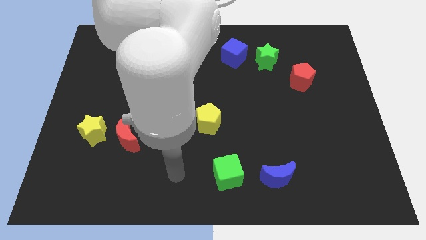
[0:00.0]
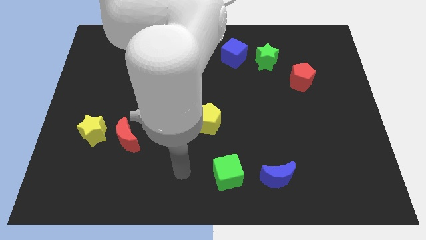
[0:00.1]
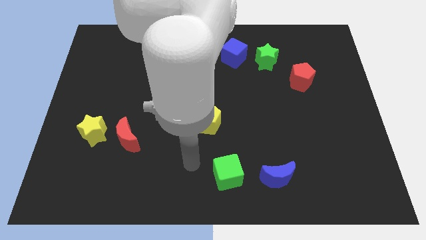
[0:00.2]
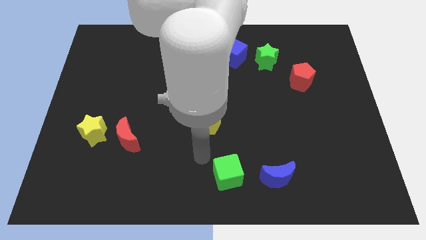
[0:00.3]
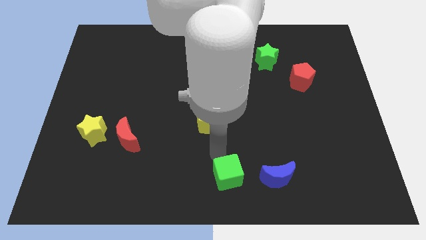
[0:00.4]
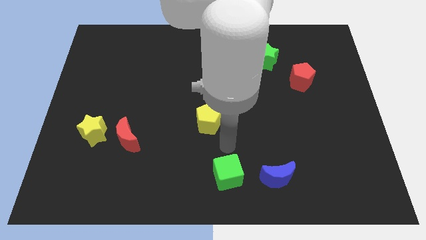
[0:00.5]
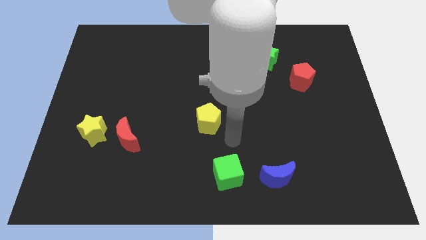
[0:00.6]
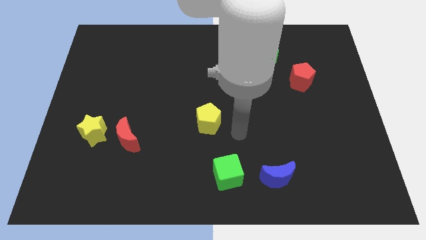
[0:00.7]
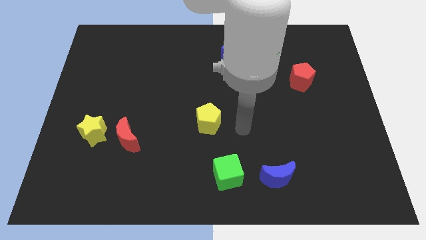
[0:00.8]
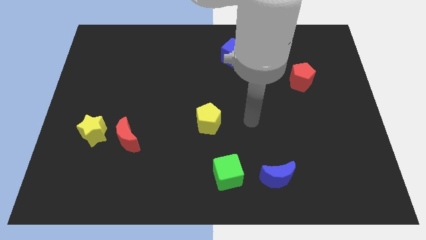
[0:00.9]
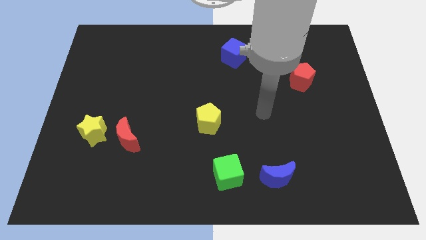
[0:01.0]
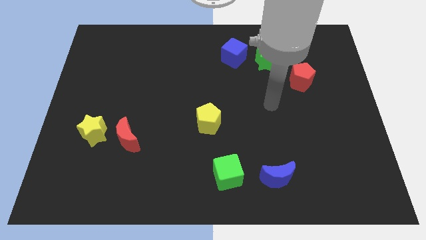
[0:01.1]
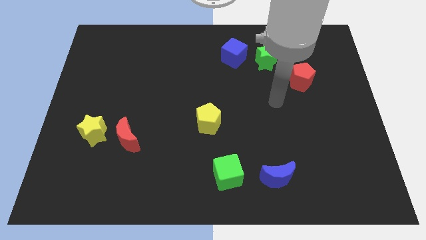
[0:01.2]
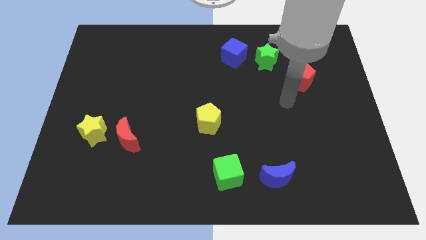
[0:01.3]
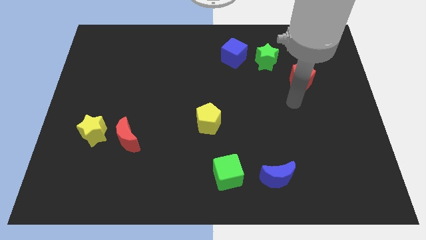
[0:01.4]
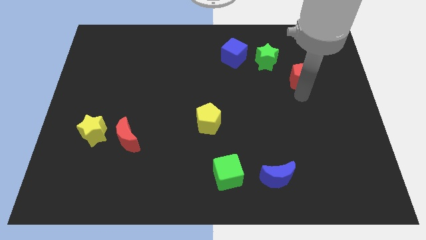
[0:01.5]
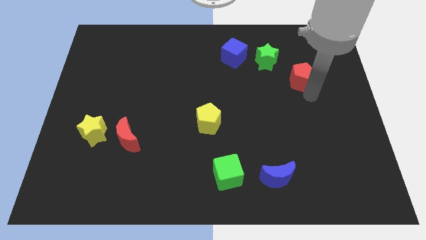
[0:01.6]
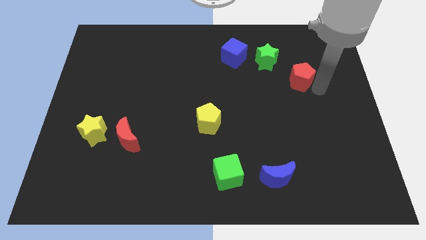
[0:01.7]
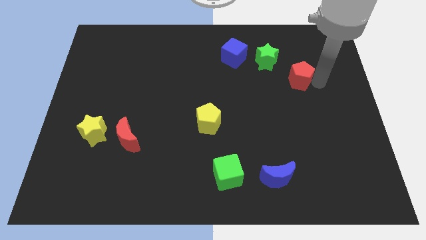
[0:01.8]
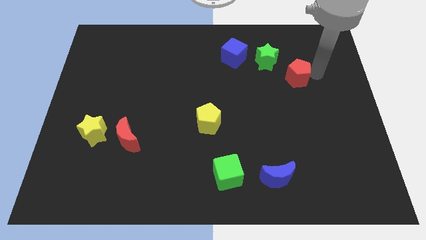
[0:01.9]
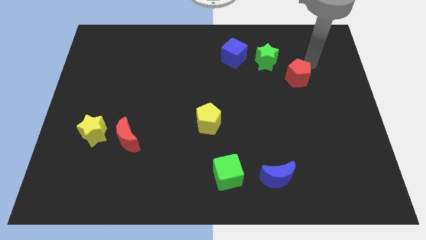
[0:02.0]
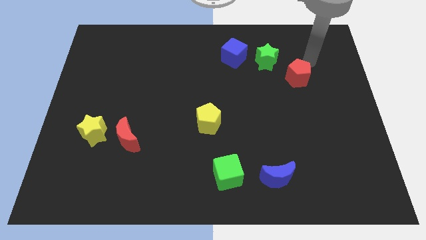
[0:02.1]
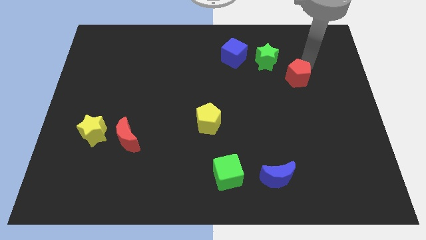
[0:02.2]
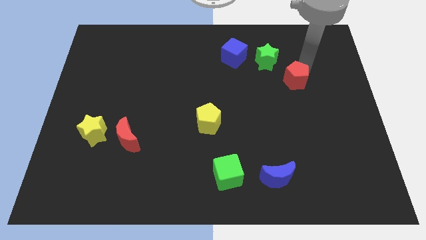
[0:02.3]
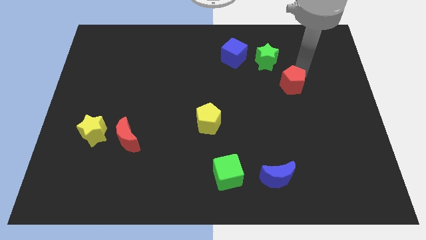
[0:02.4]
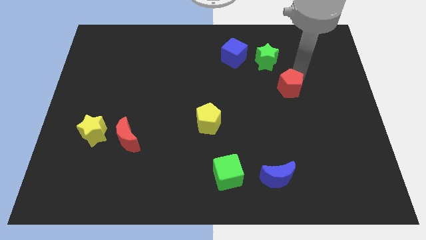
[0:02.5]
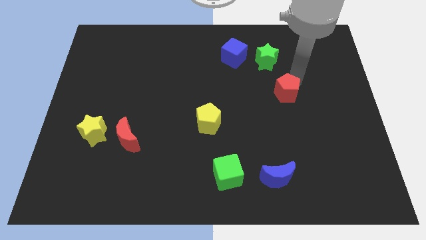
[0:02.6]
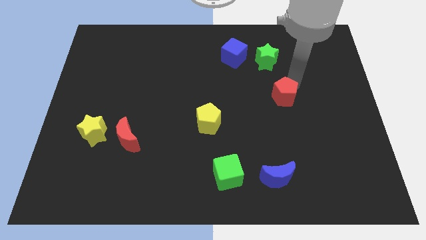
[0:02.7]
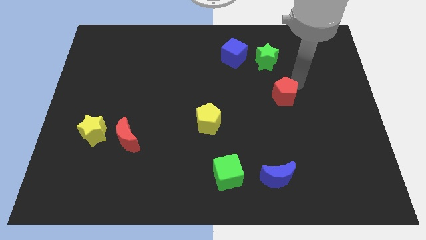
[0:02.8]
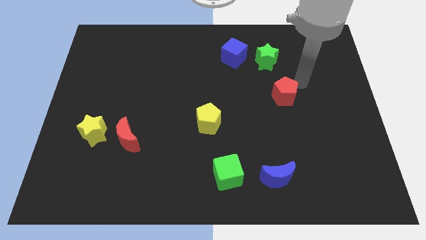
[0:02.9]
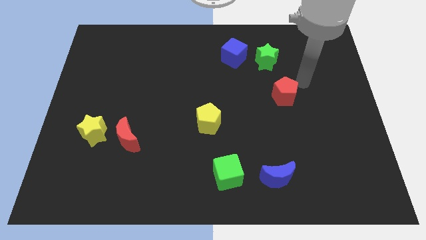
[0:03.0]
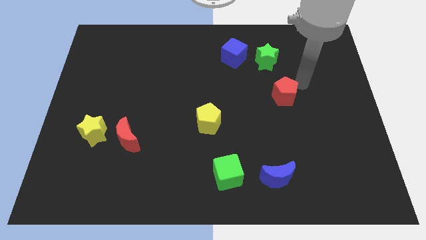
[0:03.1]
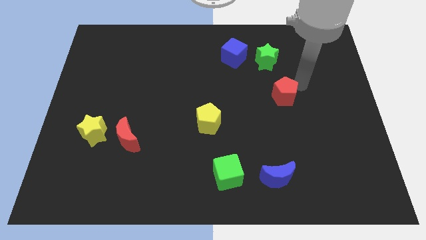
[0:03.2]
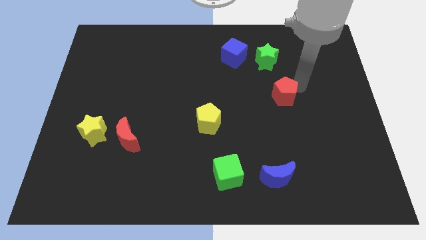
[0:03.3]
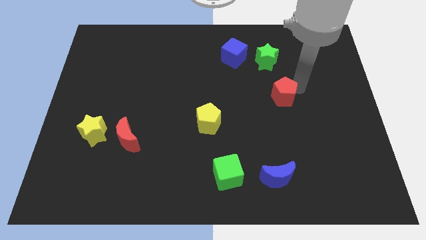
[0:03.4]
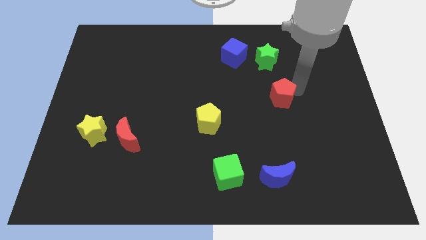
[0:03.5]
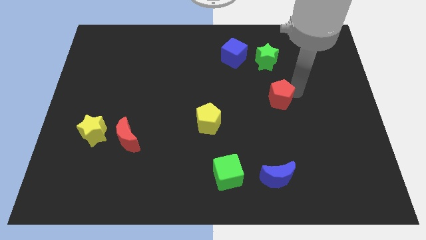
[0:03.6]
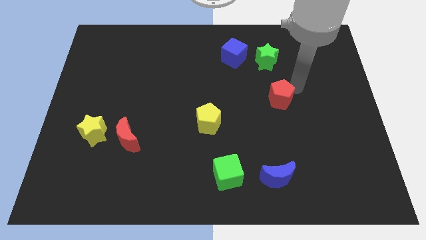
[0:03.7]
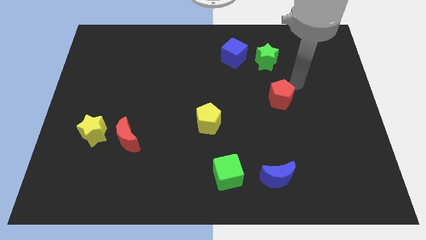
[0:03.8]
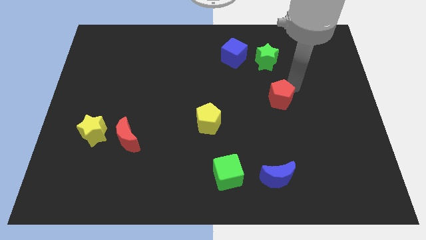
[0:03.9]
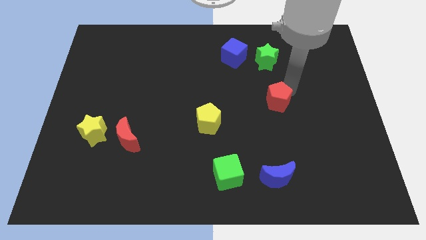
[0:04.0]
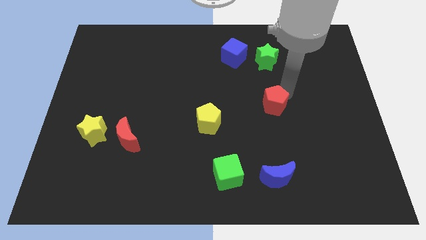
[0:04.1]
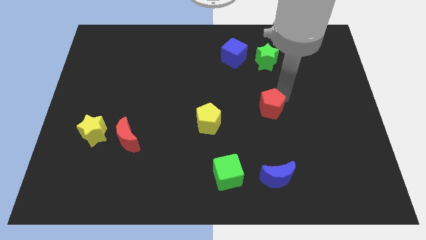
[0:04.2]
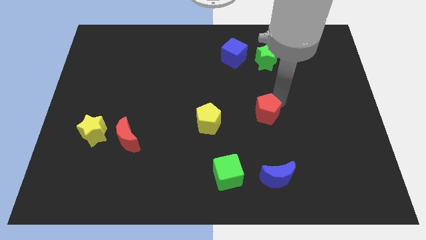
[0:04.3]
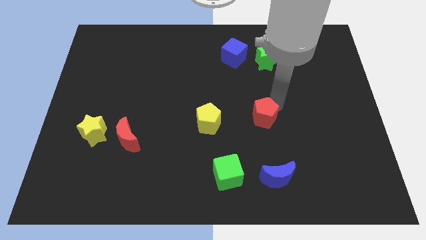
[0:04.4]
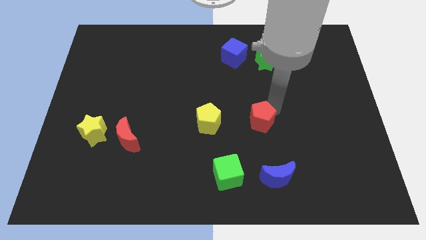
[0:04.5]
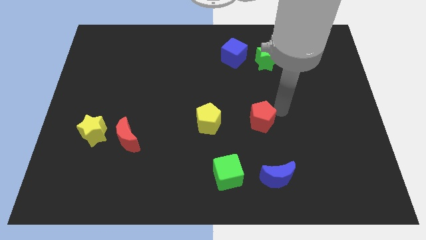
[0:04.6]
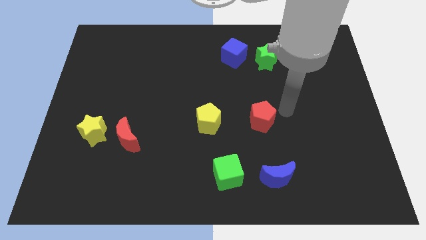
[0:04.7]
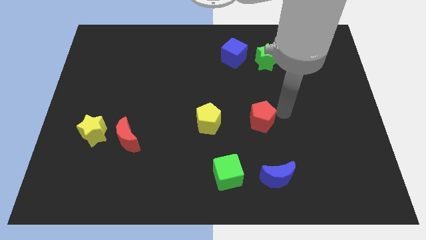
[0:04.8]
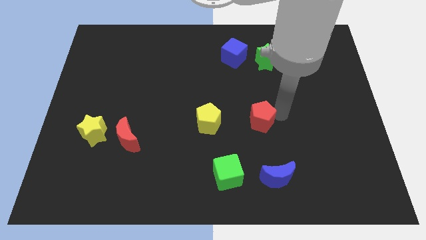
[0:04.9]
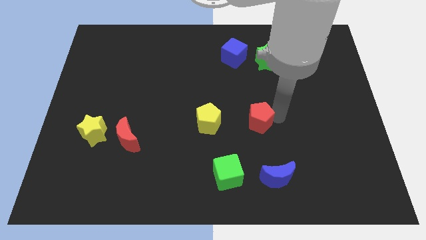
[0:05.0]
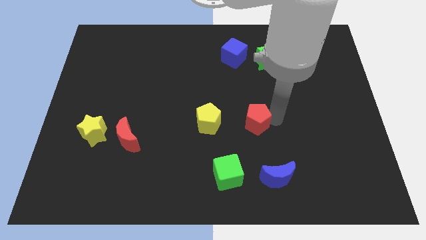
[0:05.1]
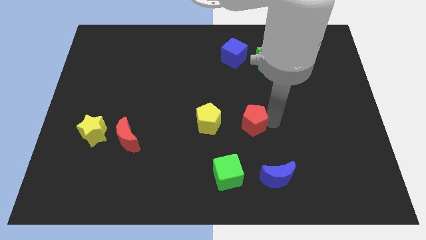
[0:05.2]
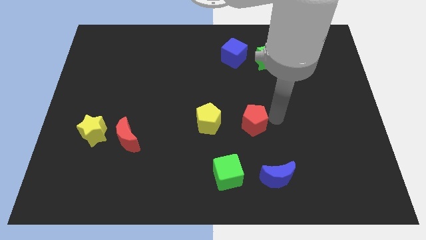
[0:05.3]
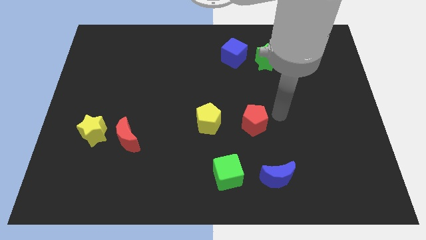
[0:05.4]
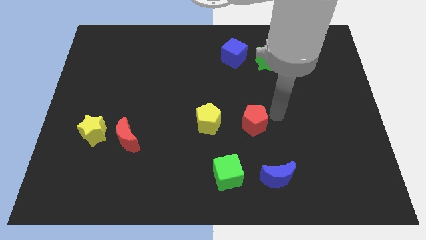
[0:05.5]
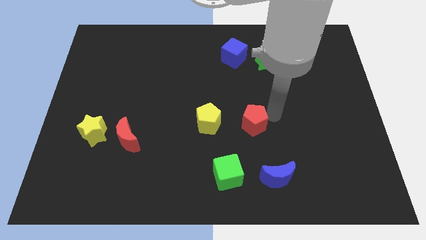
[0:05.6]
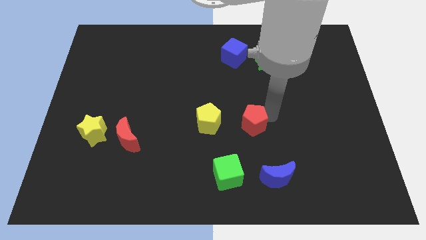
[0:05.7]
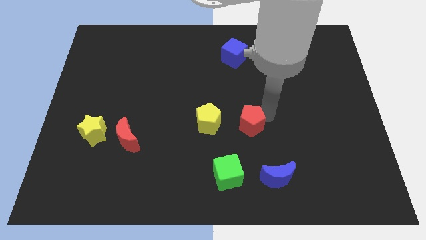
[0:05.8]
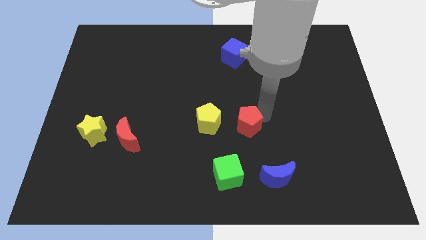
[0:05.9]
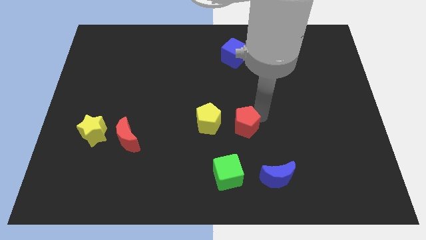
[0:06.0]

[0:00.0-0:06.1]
move the red pentagon to the top of the green cube

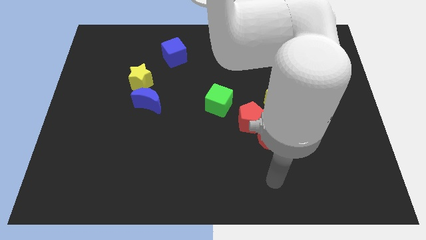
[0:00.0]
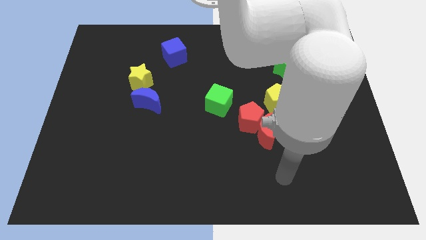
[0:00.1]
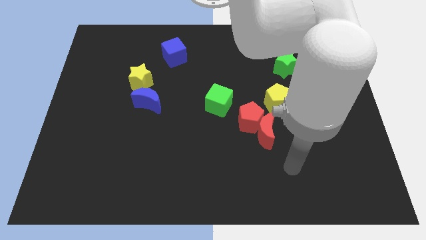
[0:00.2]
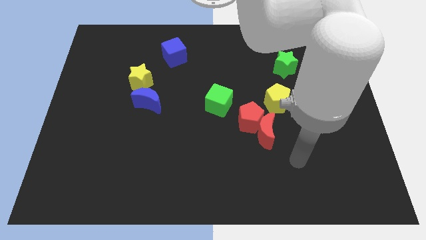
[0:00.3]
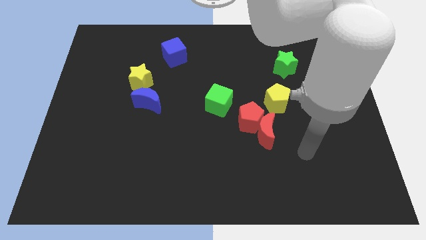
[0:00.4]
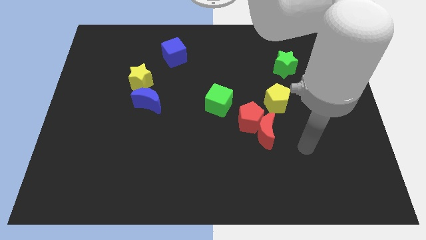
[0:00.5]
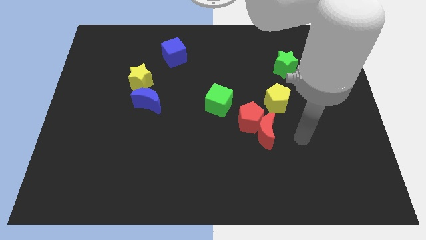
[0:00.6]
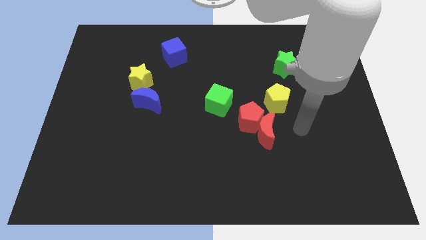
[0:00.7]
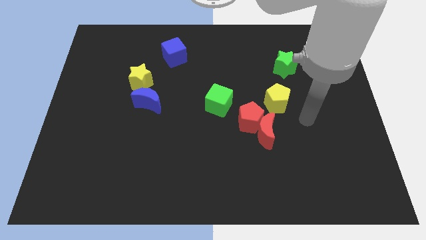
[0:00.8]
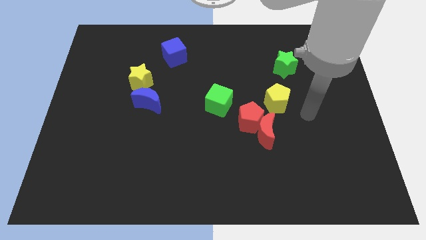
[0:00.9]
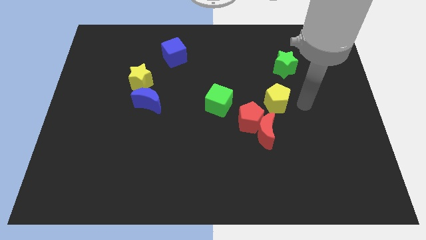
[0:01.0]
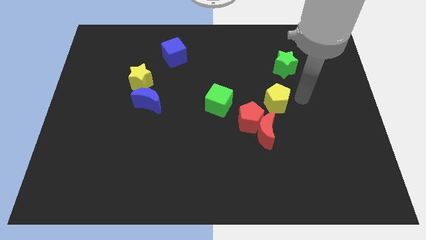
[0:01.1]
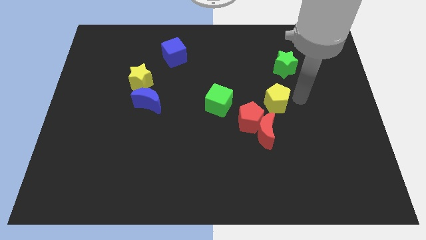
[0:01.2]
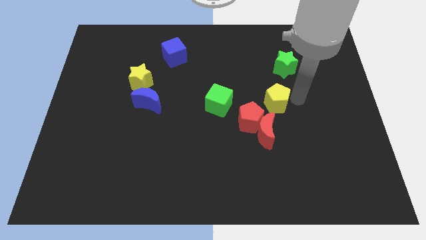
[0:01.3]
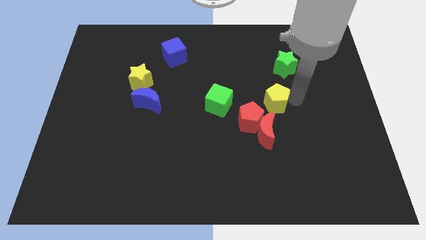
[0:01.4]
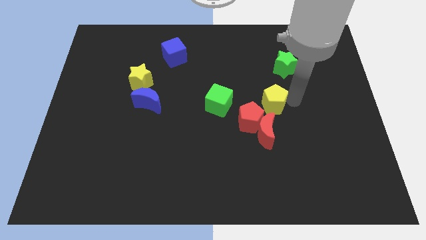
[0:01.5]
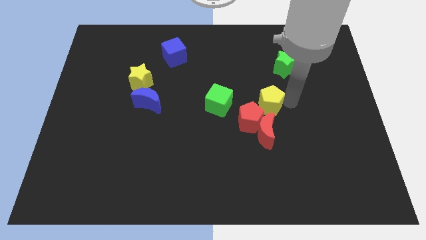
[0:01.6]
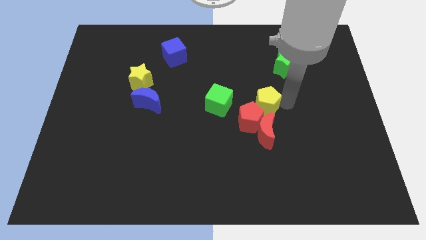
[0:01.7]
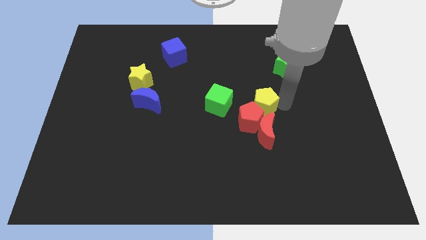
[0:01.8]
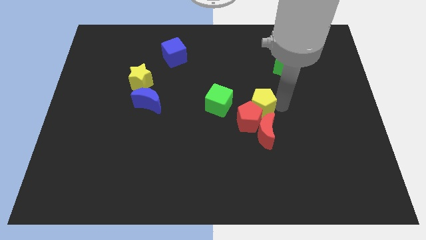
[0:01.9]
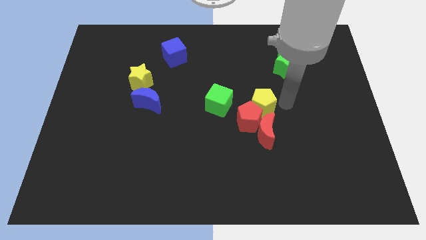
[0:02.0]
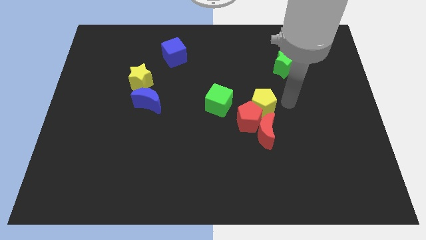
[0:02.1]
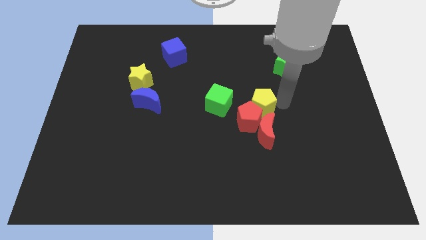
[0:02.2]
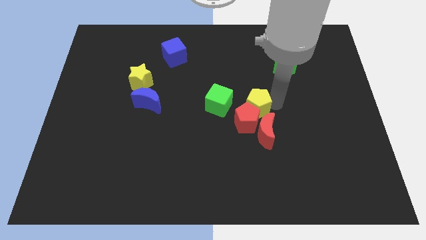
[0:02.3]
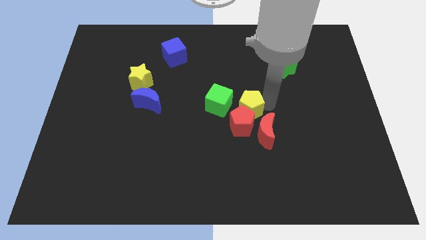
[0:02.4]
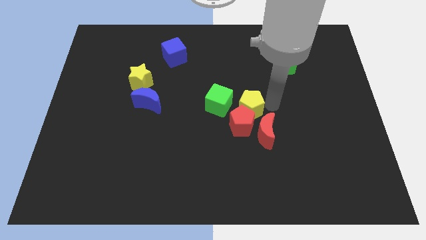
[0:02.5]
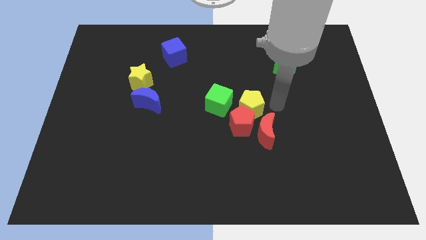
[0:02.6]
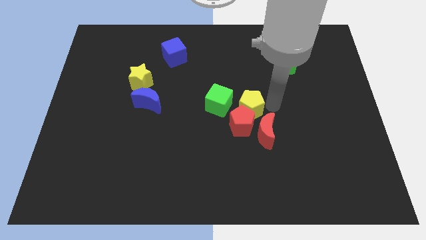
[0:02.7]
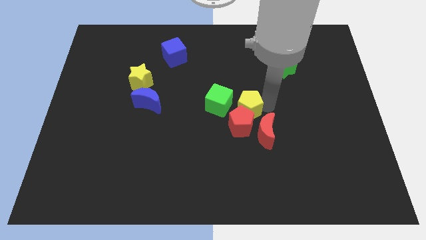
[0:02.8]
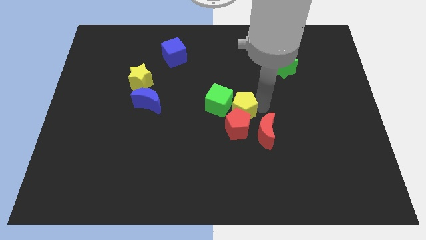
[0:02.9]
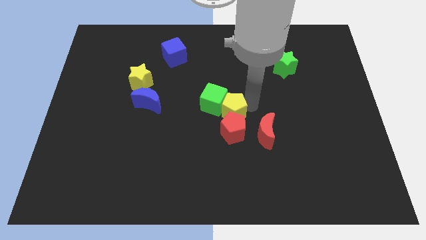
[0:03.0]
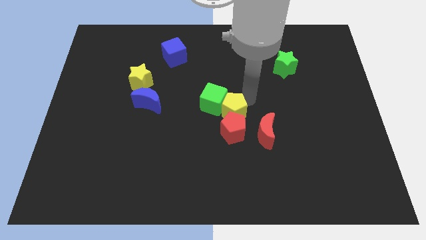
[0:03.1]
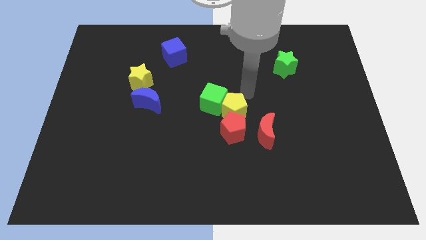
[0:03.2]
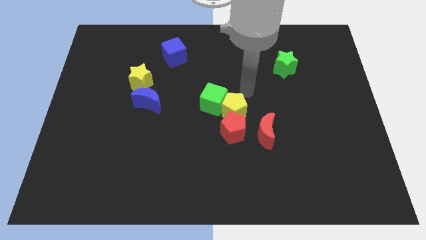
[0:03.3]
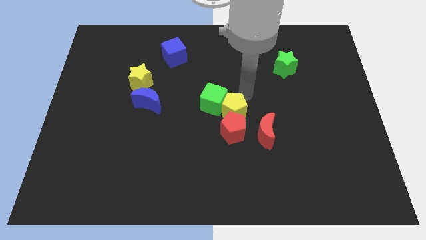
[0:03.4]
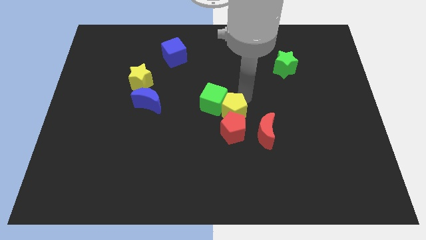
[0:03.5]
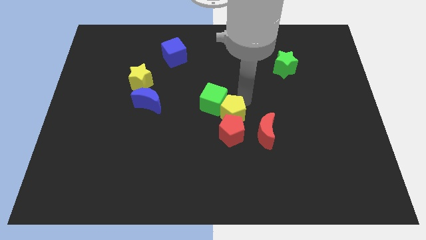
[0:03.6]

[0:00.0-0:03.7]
put the yellow pentagon below the green cube
